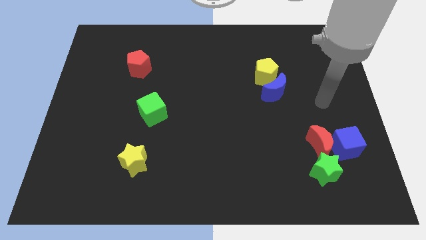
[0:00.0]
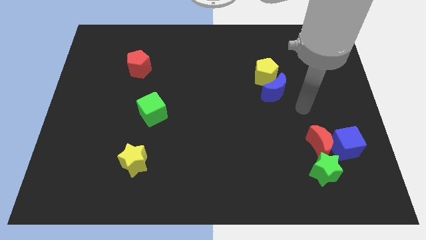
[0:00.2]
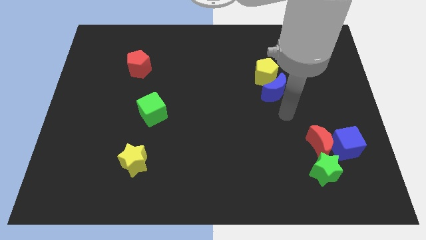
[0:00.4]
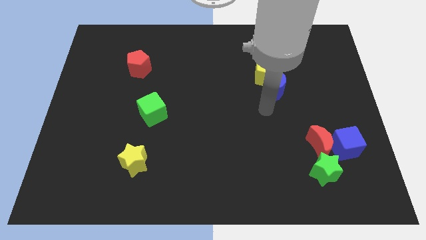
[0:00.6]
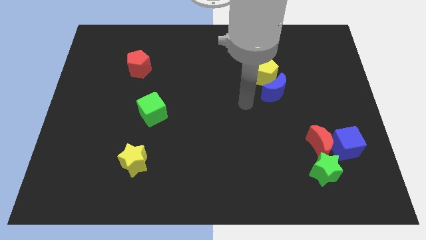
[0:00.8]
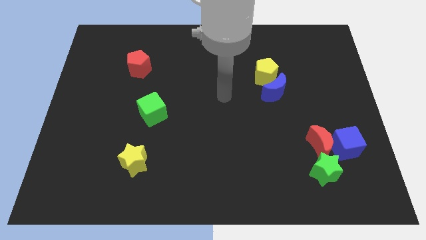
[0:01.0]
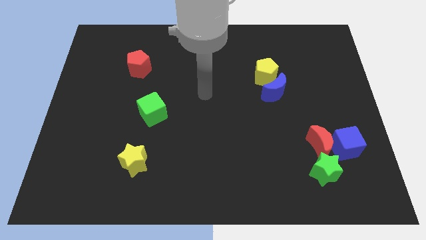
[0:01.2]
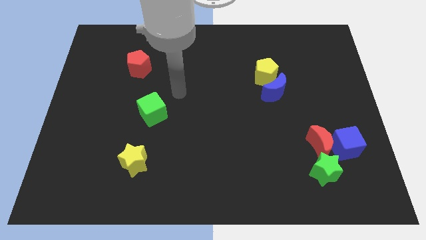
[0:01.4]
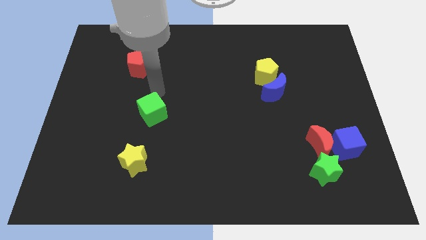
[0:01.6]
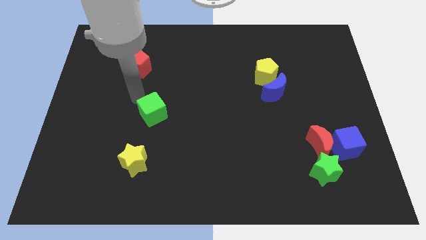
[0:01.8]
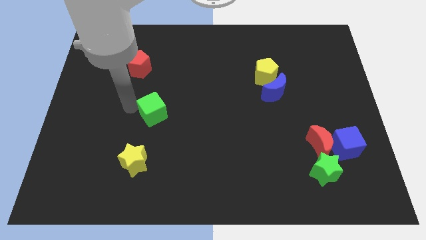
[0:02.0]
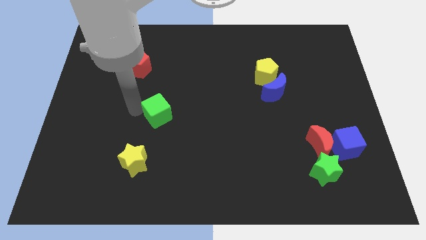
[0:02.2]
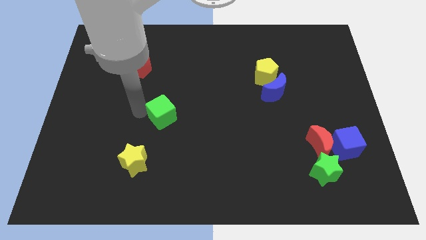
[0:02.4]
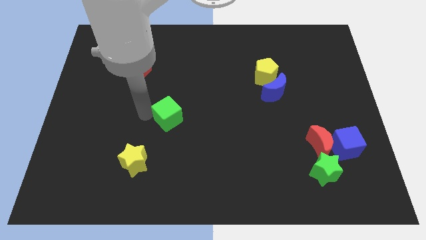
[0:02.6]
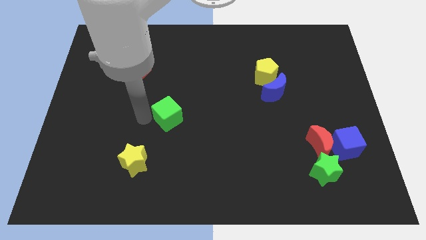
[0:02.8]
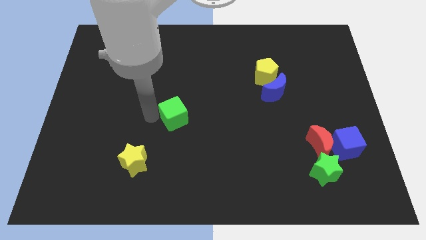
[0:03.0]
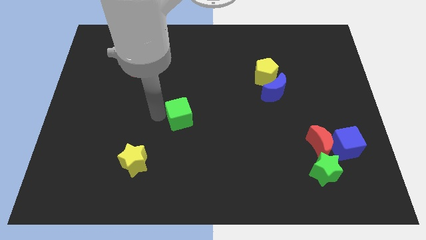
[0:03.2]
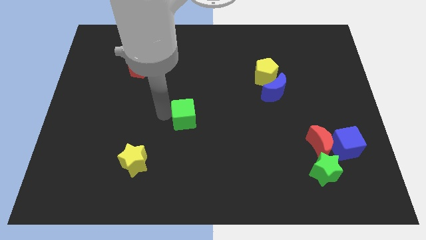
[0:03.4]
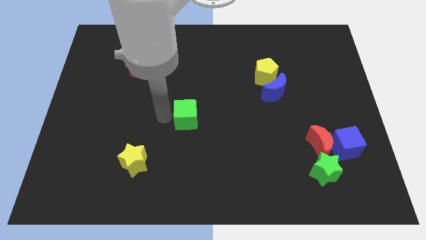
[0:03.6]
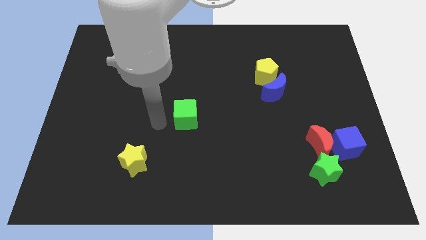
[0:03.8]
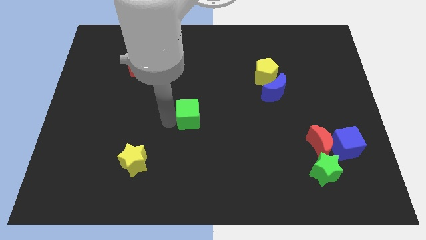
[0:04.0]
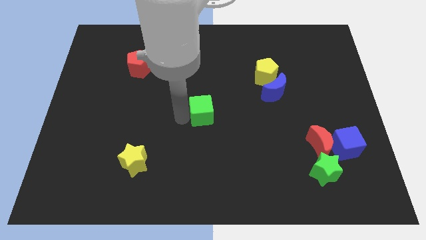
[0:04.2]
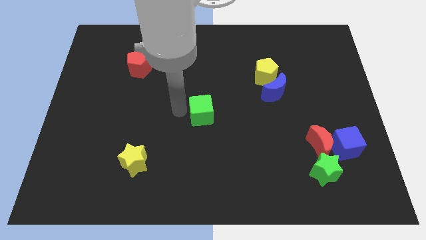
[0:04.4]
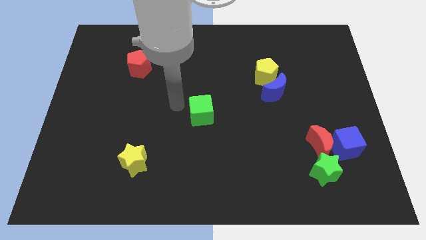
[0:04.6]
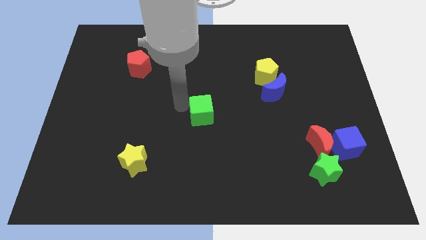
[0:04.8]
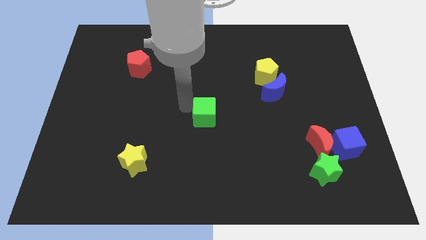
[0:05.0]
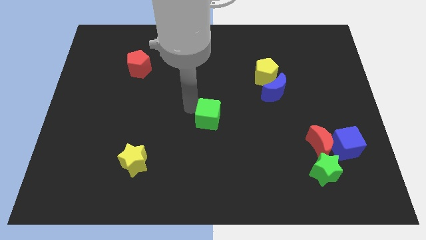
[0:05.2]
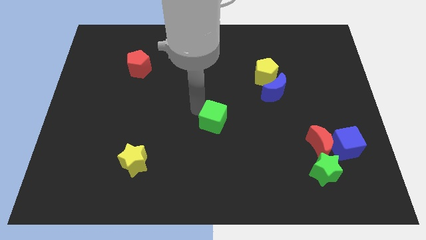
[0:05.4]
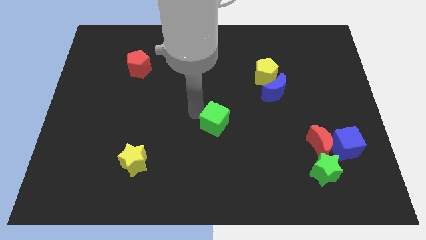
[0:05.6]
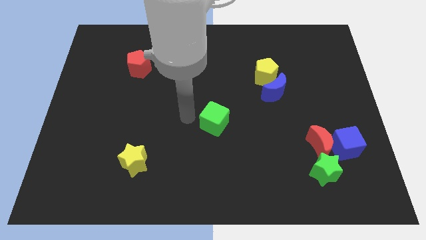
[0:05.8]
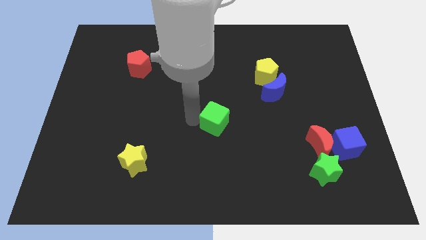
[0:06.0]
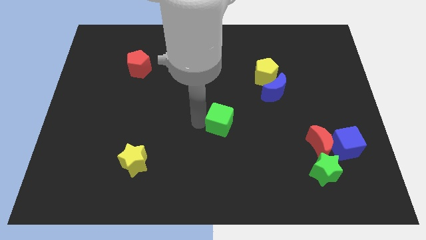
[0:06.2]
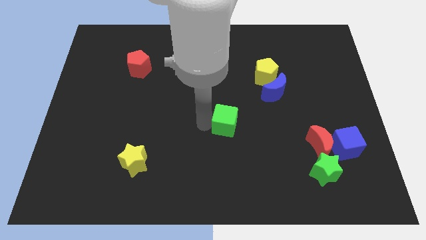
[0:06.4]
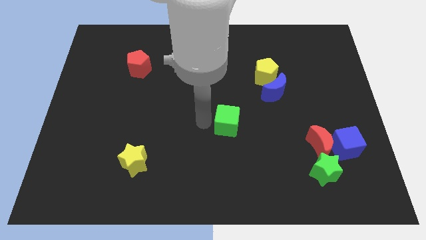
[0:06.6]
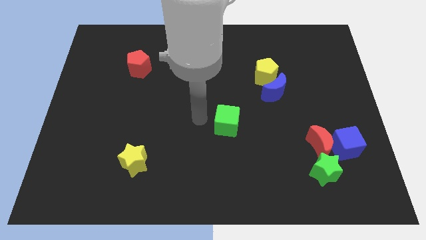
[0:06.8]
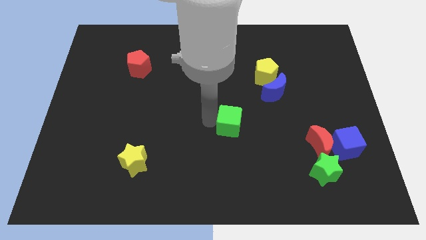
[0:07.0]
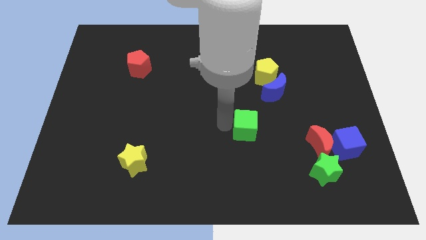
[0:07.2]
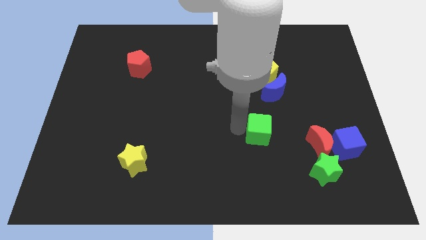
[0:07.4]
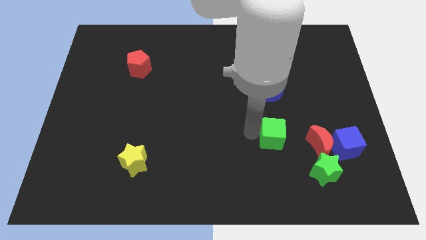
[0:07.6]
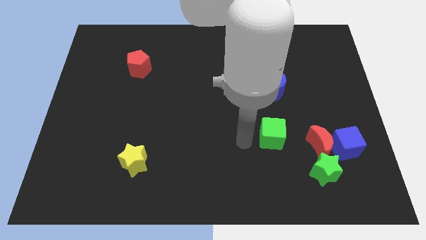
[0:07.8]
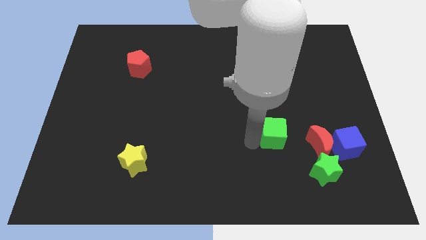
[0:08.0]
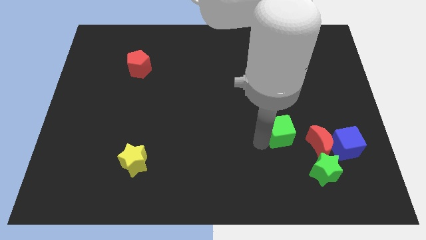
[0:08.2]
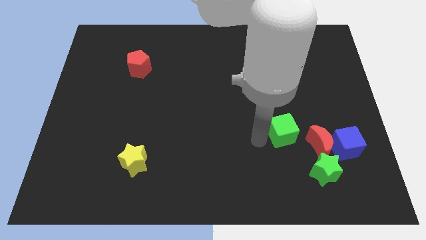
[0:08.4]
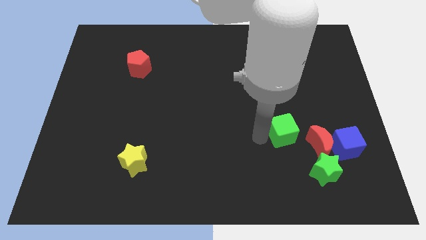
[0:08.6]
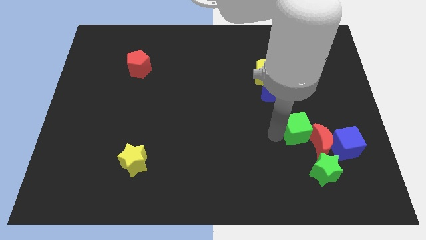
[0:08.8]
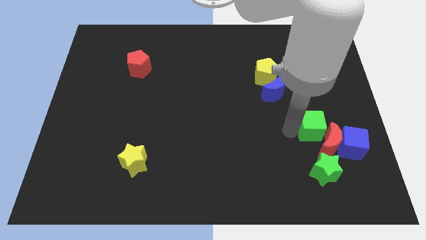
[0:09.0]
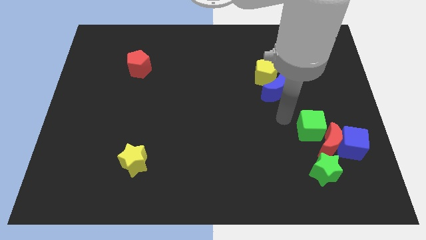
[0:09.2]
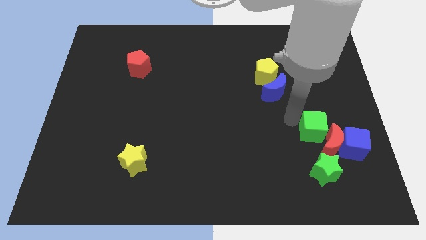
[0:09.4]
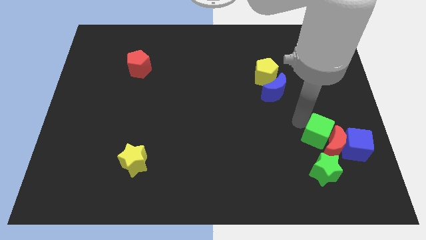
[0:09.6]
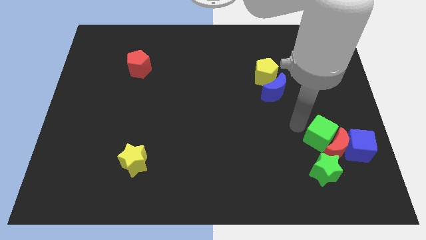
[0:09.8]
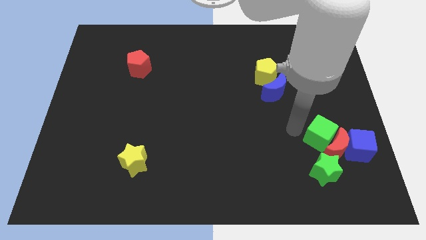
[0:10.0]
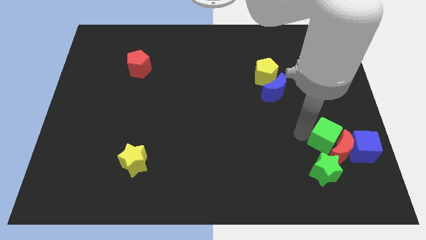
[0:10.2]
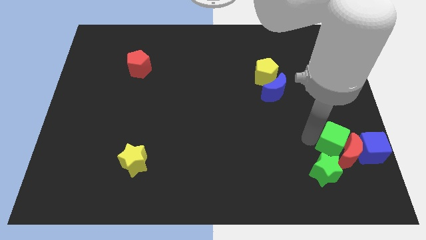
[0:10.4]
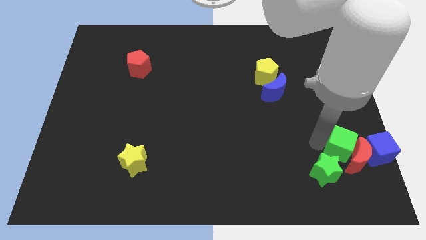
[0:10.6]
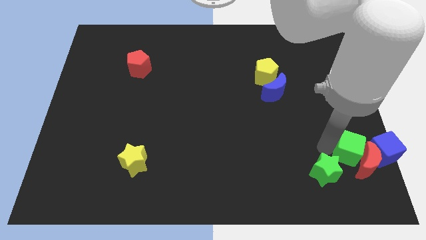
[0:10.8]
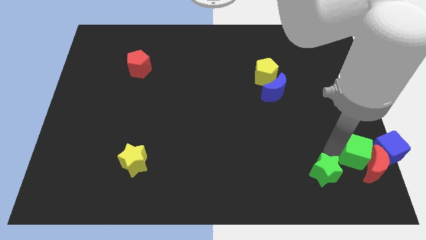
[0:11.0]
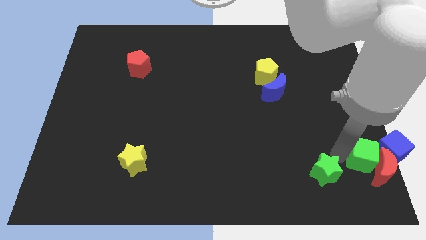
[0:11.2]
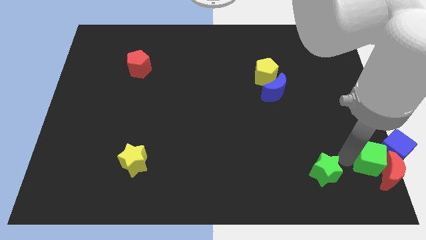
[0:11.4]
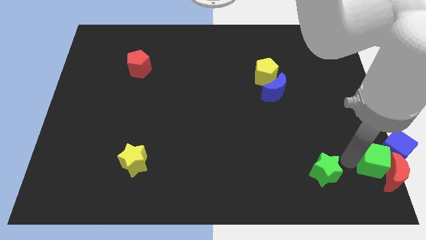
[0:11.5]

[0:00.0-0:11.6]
slide the green cube next to the blue cube

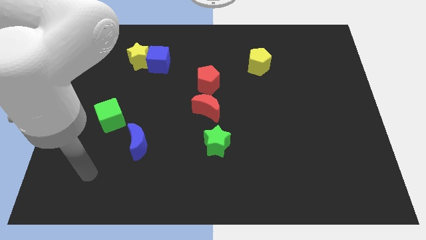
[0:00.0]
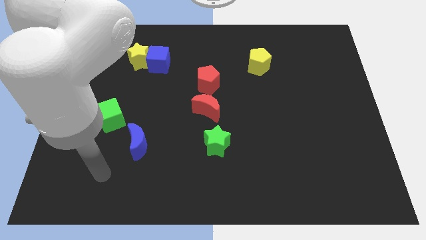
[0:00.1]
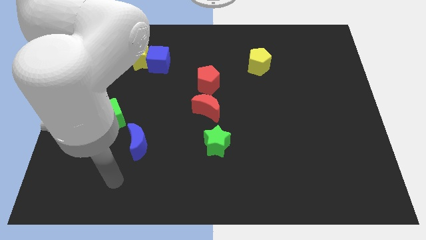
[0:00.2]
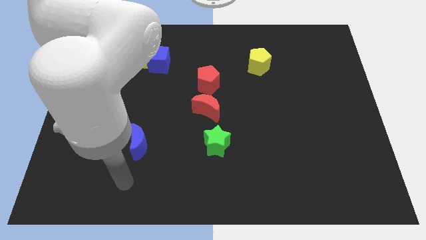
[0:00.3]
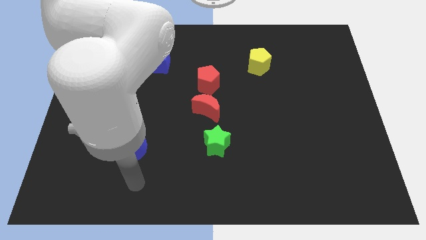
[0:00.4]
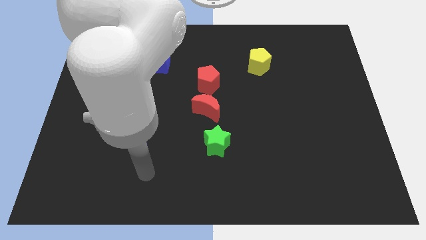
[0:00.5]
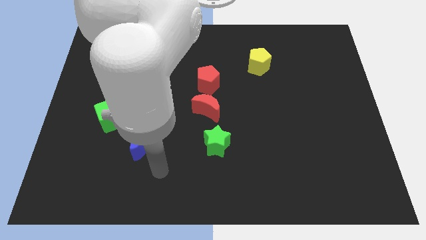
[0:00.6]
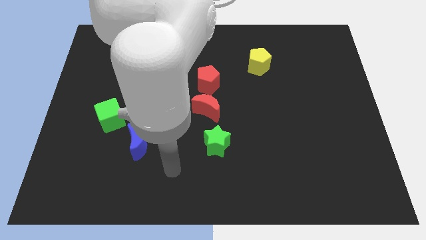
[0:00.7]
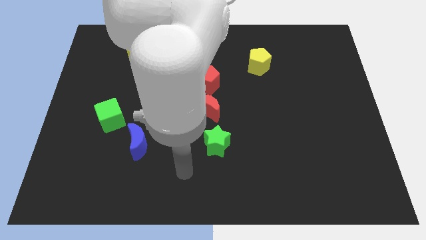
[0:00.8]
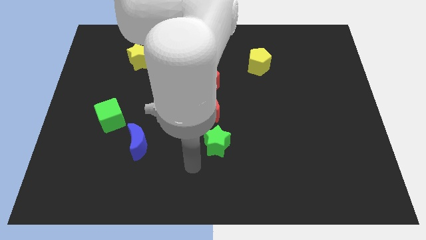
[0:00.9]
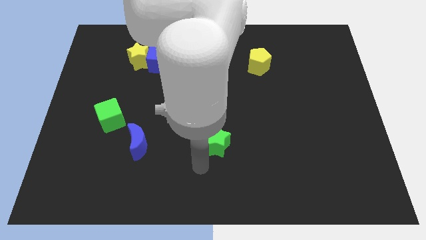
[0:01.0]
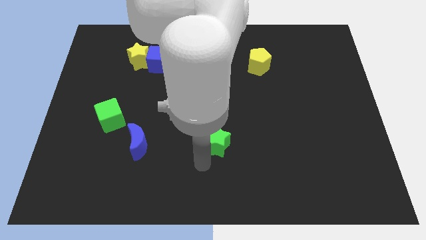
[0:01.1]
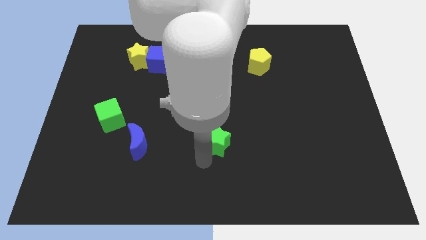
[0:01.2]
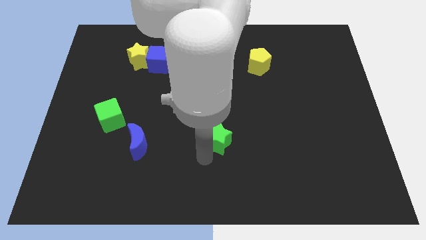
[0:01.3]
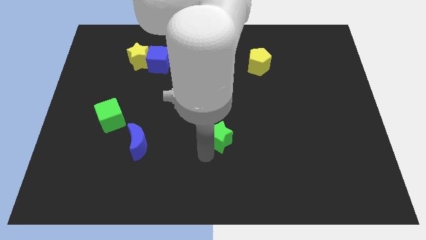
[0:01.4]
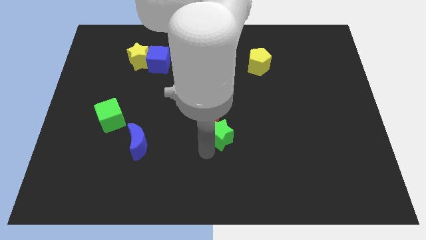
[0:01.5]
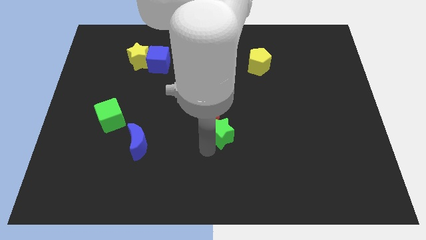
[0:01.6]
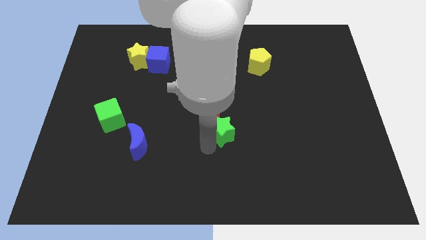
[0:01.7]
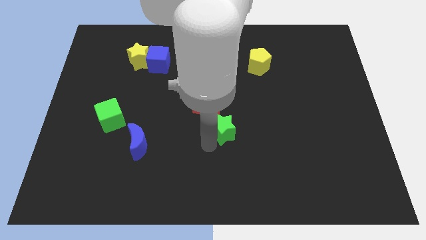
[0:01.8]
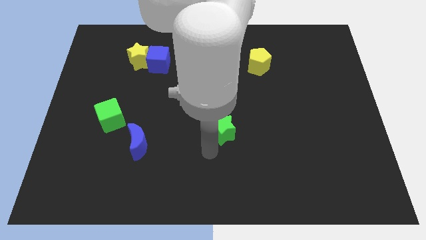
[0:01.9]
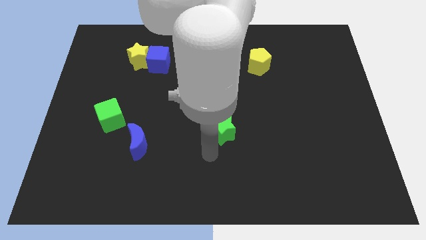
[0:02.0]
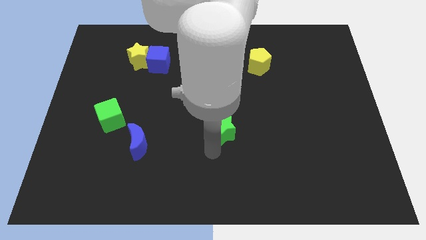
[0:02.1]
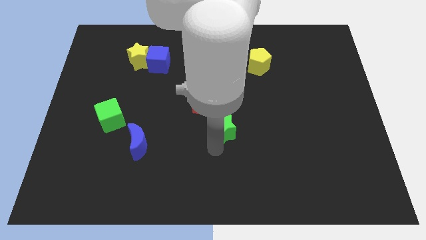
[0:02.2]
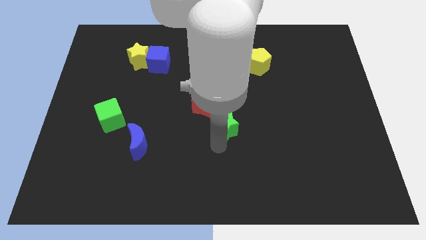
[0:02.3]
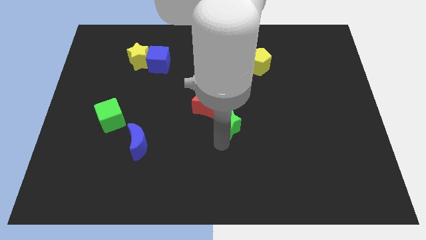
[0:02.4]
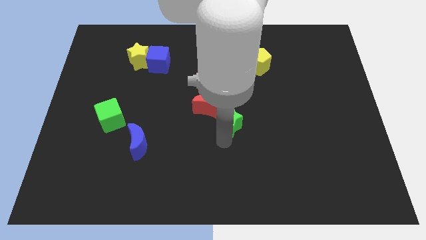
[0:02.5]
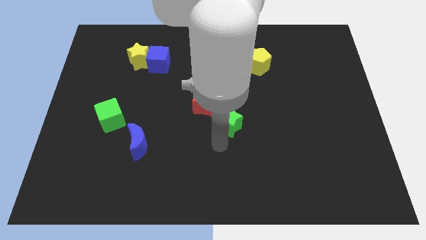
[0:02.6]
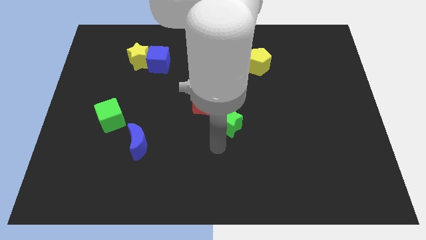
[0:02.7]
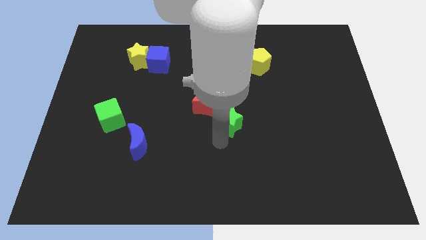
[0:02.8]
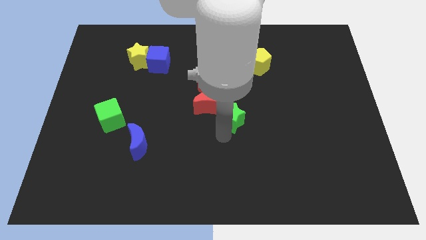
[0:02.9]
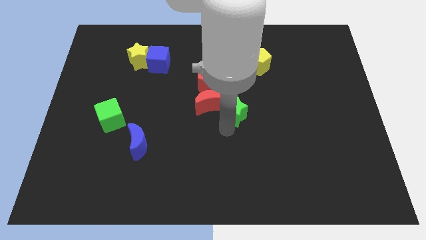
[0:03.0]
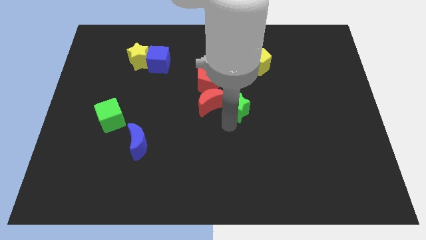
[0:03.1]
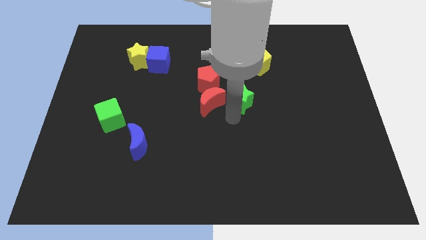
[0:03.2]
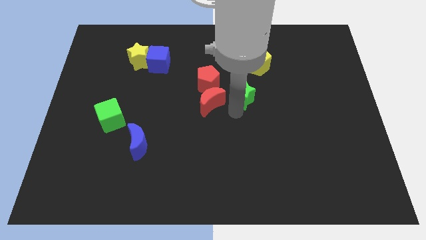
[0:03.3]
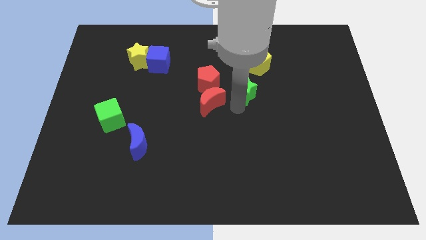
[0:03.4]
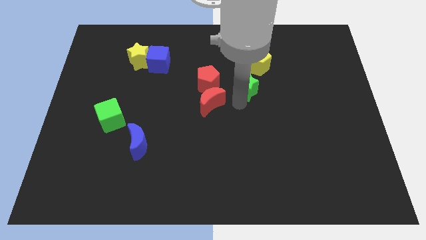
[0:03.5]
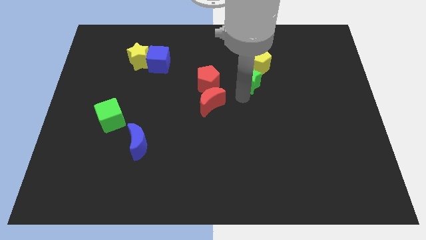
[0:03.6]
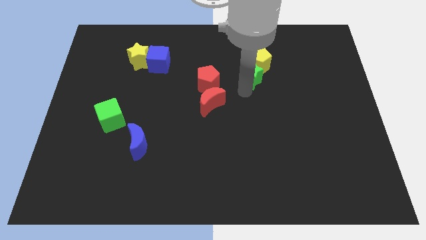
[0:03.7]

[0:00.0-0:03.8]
put the green star close to the yellow pentagon
